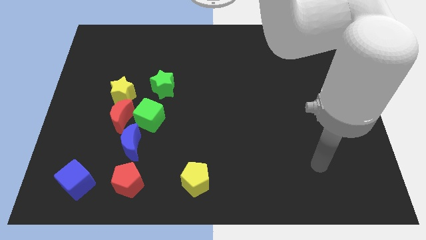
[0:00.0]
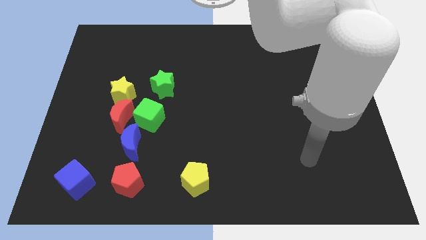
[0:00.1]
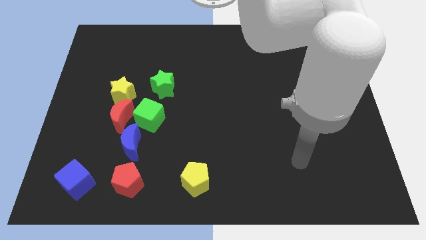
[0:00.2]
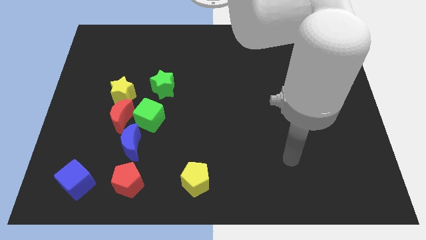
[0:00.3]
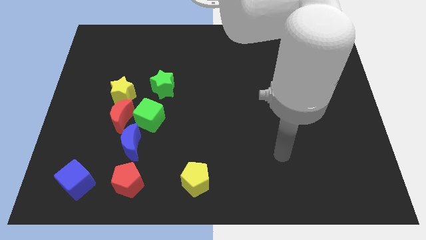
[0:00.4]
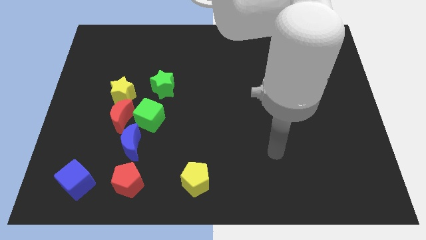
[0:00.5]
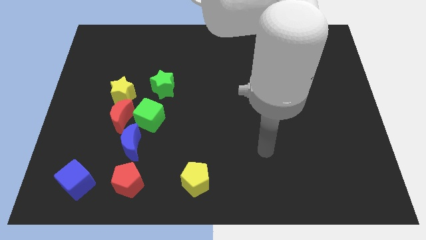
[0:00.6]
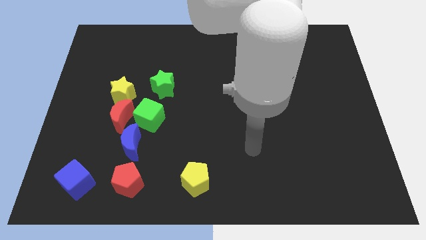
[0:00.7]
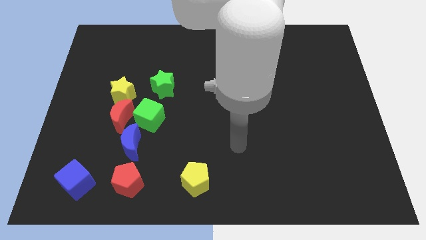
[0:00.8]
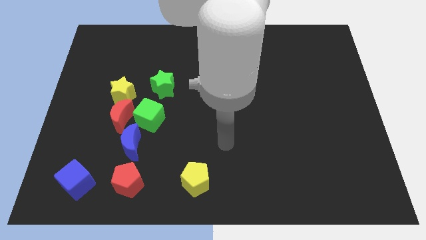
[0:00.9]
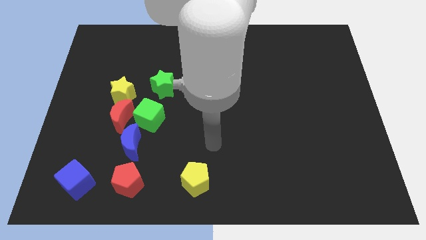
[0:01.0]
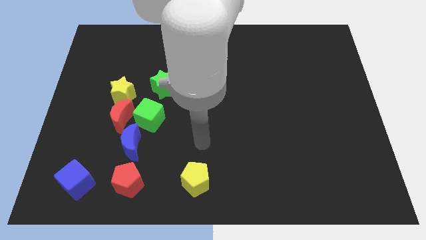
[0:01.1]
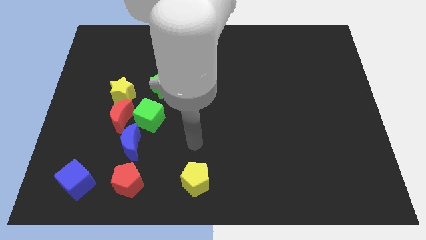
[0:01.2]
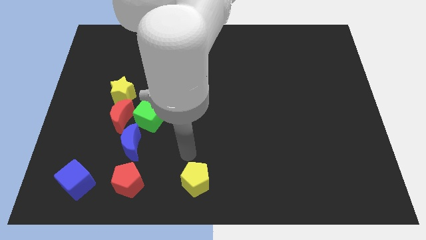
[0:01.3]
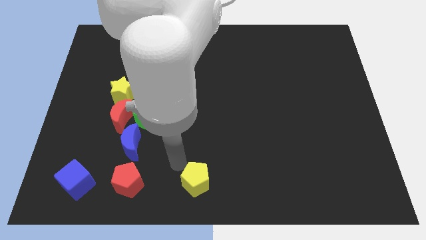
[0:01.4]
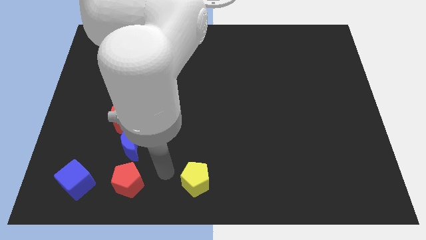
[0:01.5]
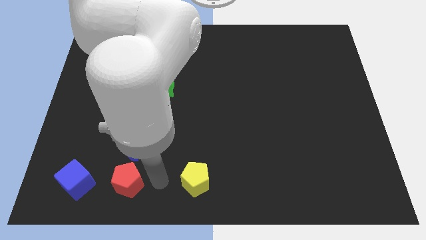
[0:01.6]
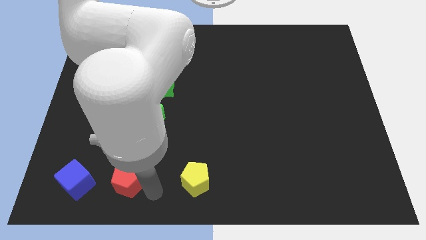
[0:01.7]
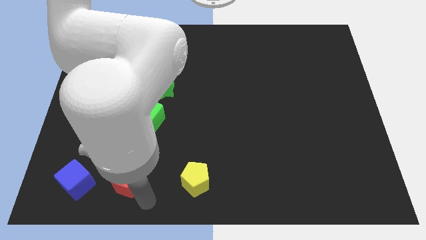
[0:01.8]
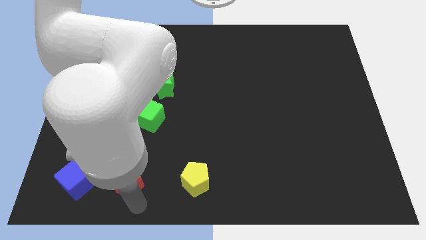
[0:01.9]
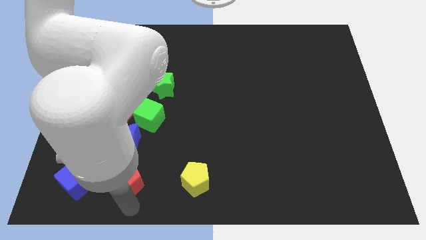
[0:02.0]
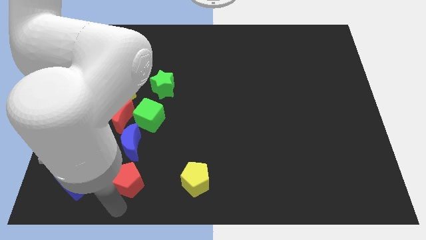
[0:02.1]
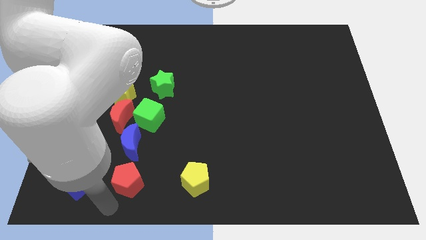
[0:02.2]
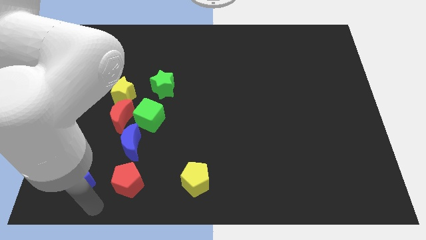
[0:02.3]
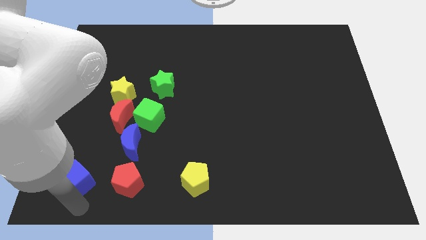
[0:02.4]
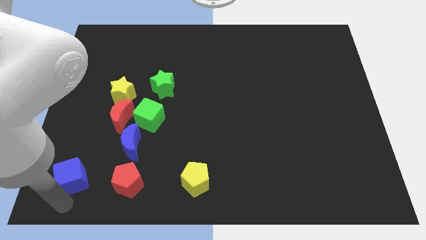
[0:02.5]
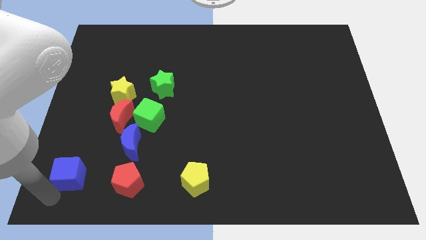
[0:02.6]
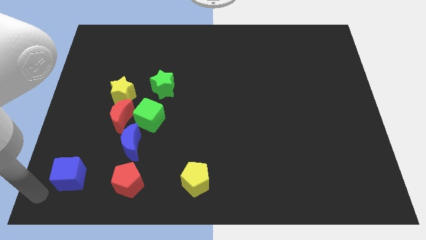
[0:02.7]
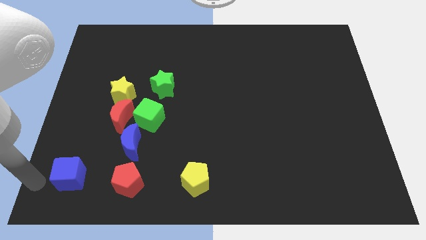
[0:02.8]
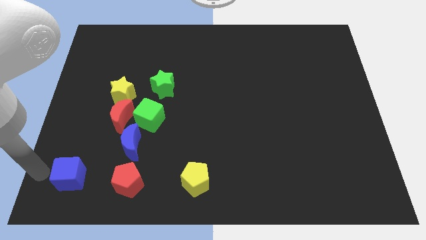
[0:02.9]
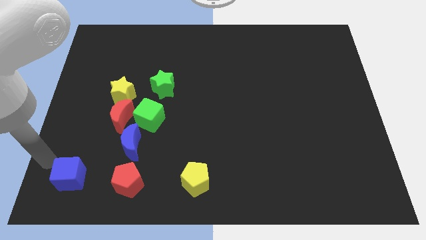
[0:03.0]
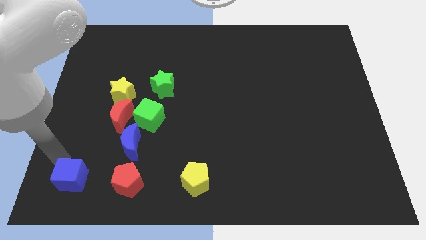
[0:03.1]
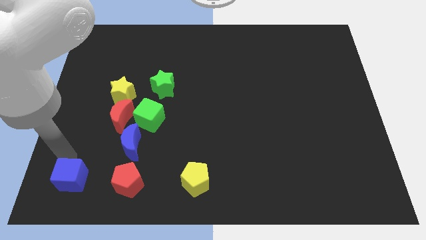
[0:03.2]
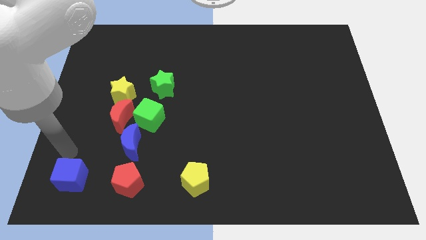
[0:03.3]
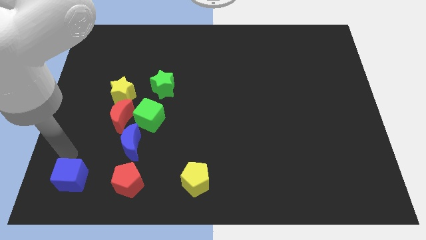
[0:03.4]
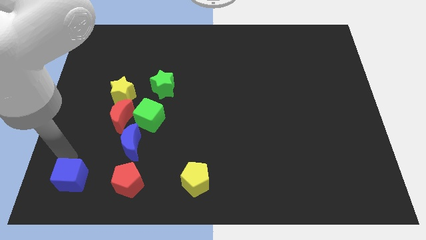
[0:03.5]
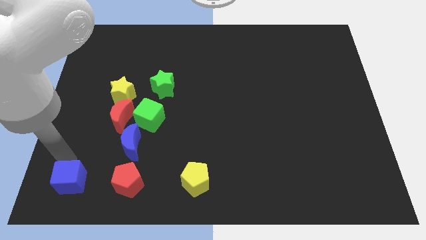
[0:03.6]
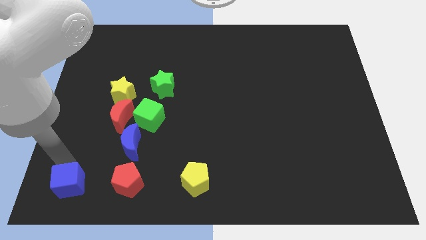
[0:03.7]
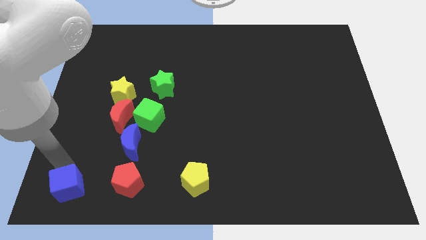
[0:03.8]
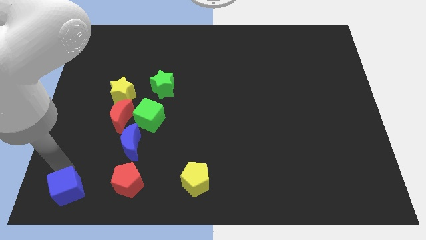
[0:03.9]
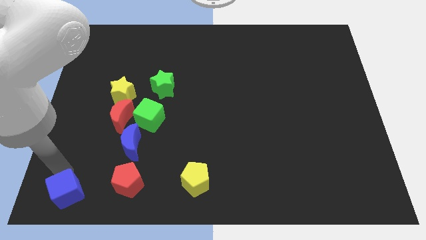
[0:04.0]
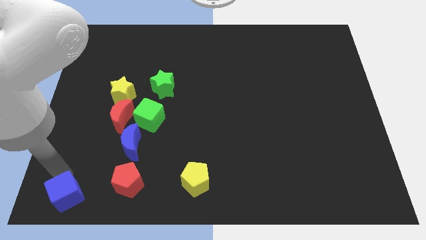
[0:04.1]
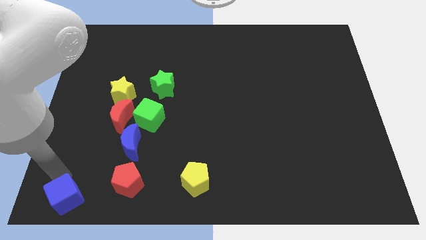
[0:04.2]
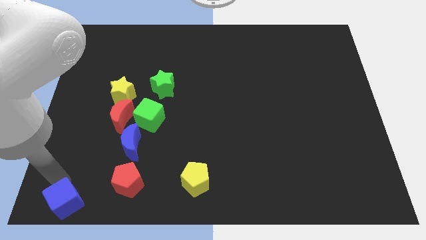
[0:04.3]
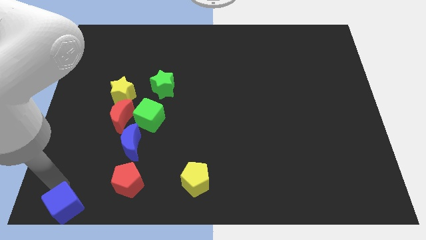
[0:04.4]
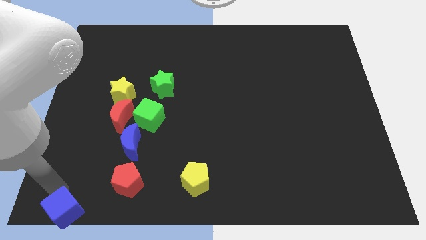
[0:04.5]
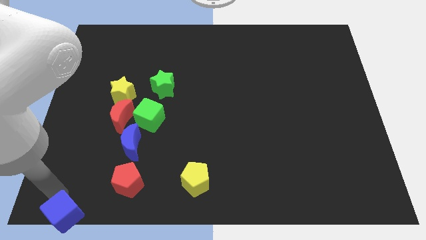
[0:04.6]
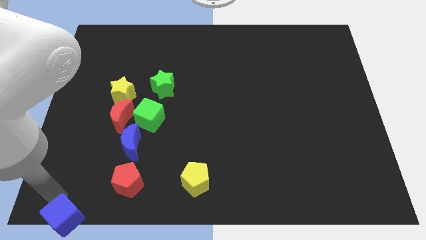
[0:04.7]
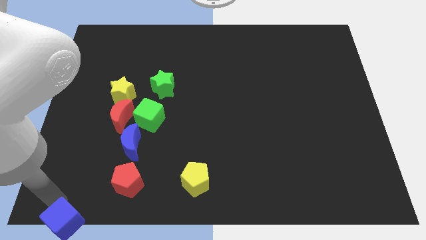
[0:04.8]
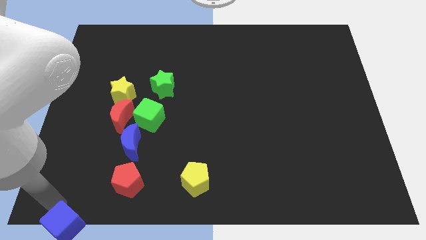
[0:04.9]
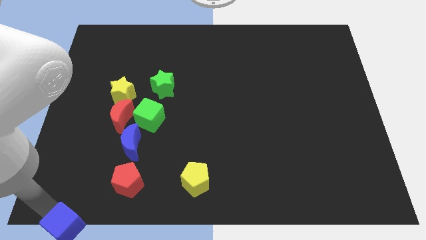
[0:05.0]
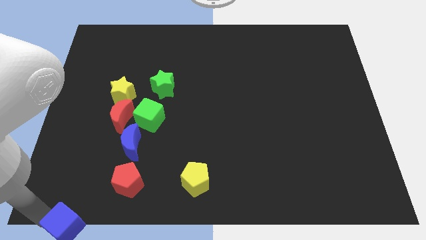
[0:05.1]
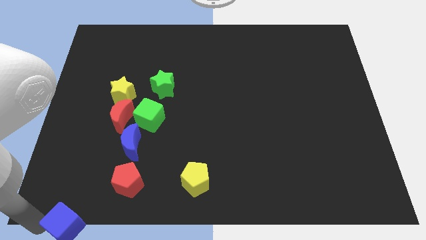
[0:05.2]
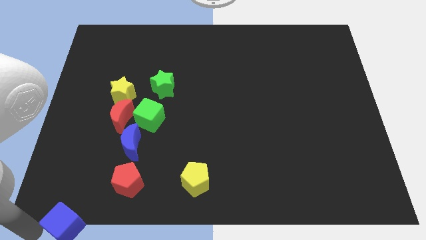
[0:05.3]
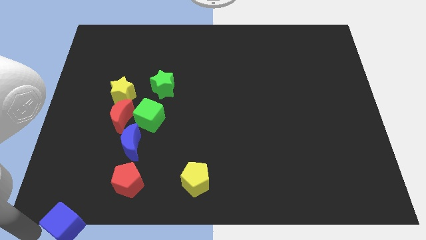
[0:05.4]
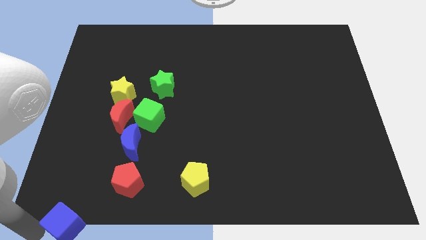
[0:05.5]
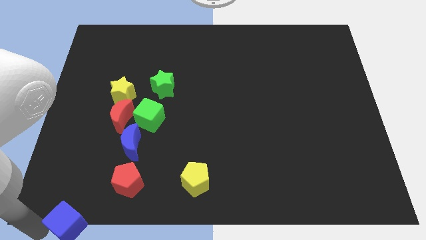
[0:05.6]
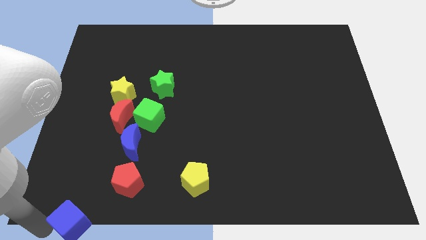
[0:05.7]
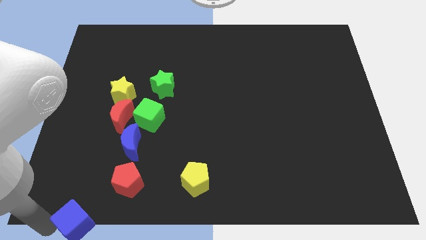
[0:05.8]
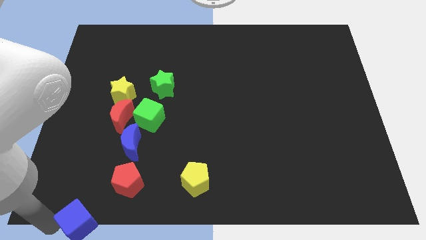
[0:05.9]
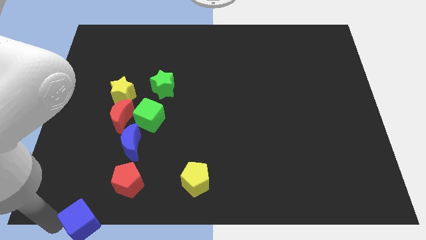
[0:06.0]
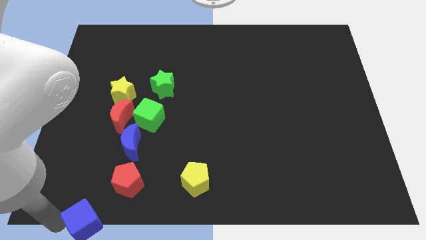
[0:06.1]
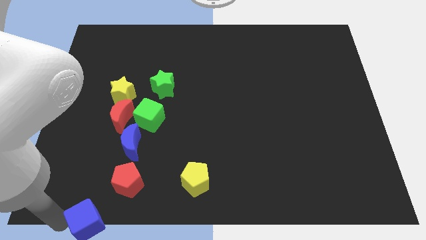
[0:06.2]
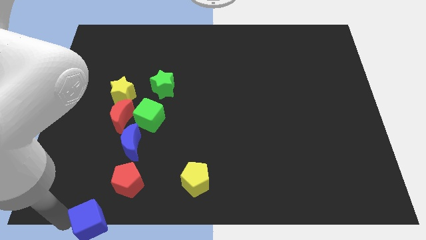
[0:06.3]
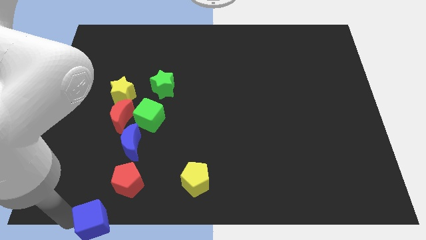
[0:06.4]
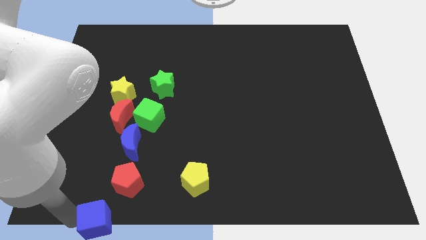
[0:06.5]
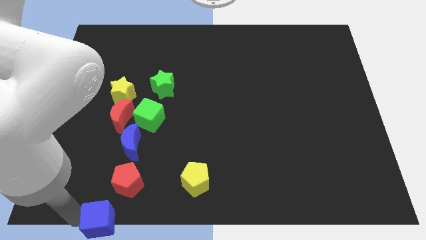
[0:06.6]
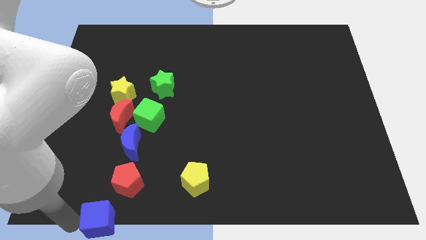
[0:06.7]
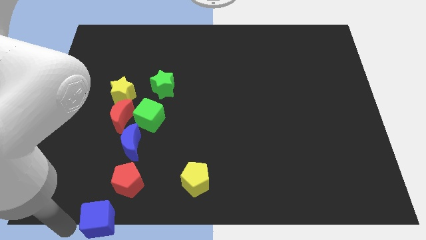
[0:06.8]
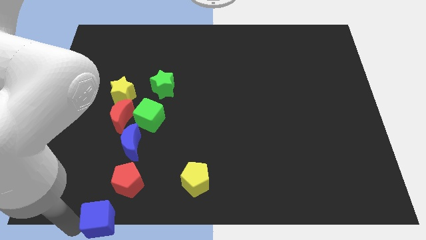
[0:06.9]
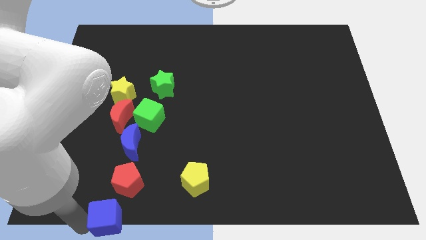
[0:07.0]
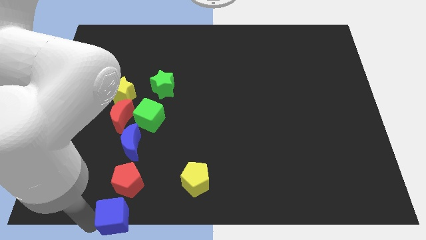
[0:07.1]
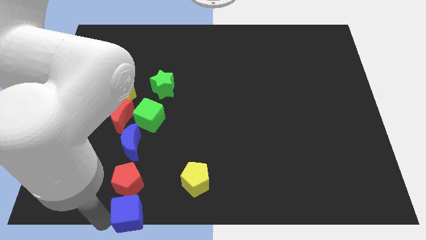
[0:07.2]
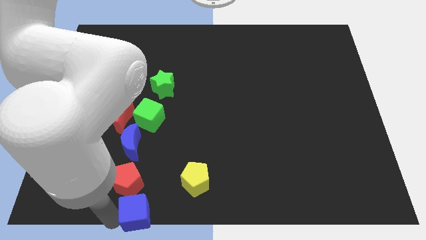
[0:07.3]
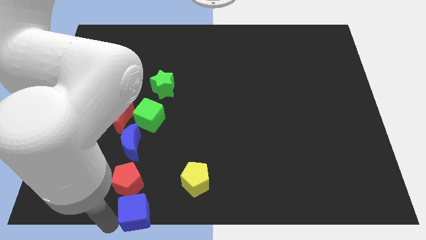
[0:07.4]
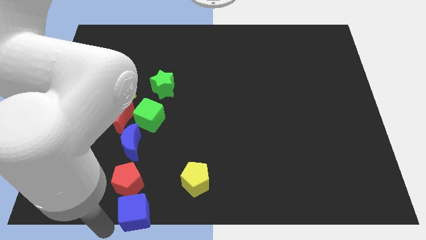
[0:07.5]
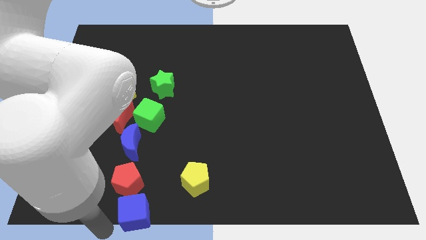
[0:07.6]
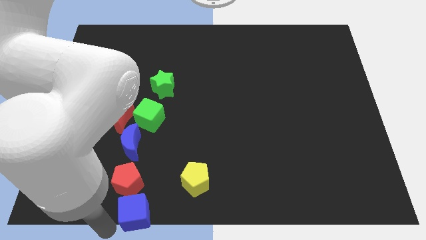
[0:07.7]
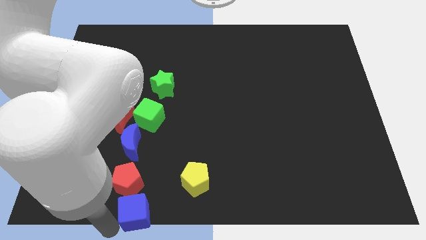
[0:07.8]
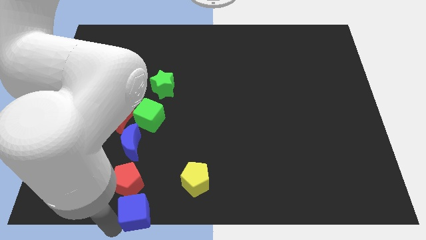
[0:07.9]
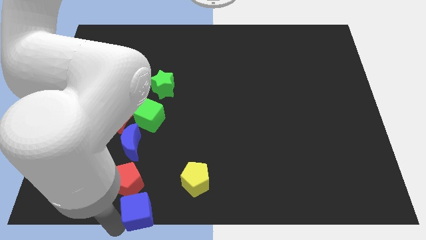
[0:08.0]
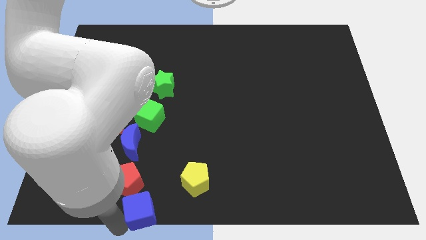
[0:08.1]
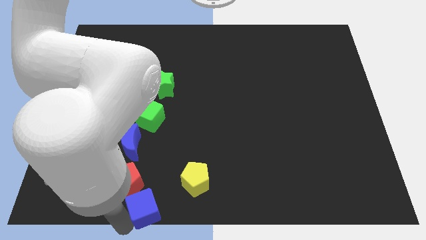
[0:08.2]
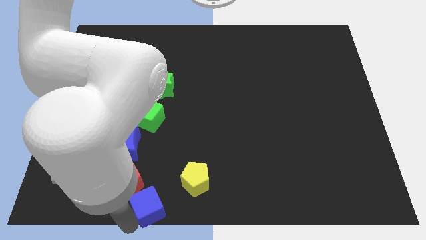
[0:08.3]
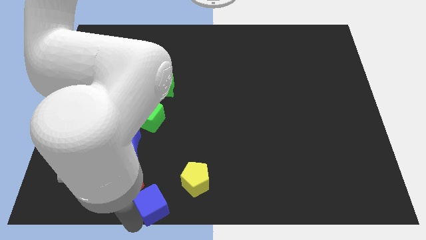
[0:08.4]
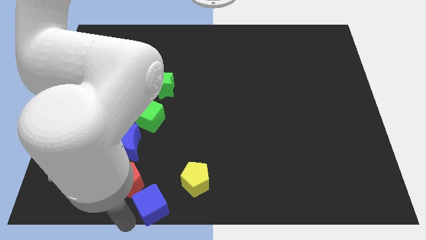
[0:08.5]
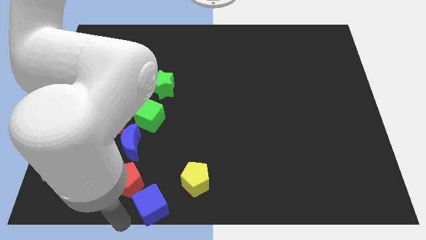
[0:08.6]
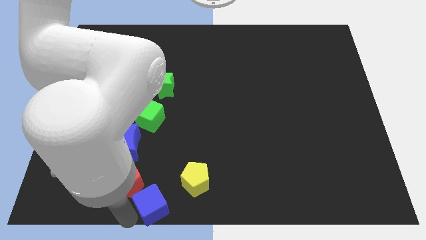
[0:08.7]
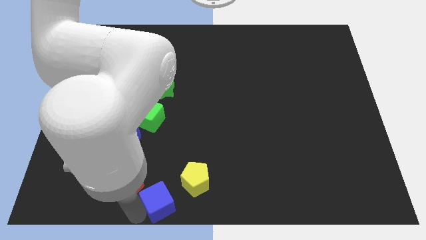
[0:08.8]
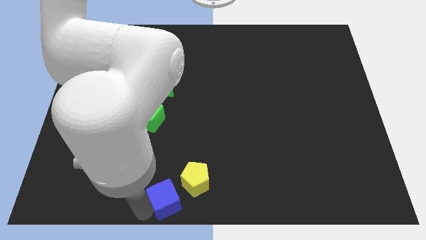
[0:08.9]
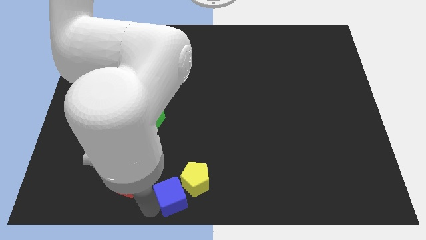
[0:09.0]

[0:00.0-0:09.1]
slide the blue cube close to the yellow pentagon
